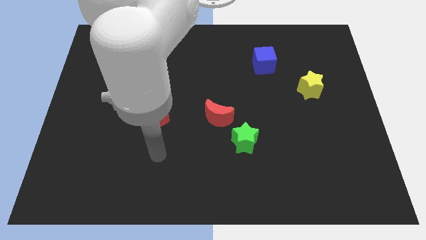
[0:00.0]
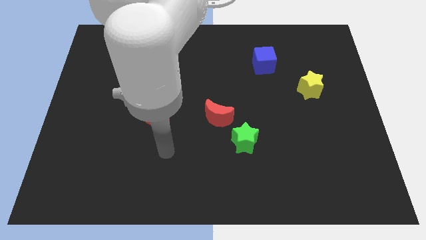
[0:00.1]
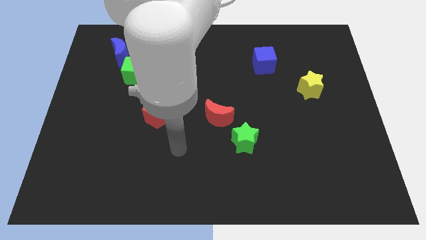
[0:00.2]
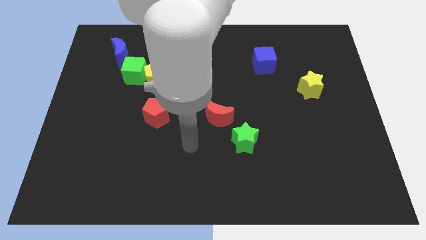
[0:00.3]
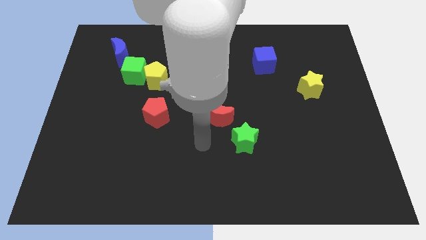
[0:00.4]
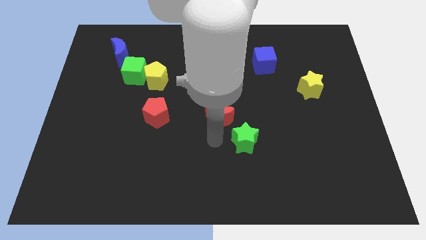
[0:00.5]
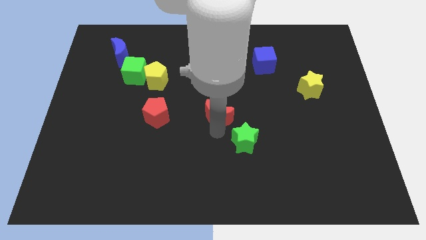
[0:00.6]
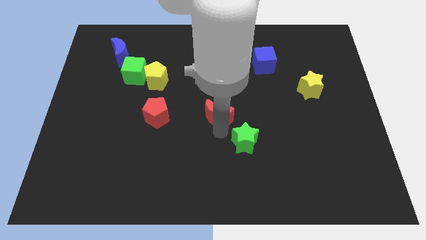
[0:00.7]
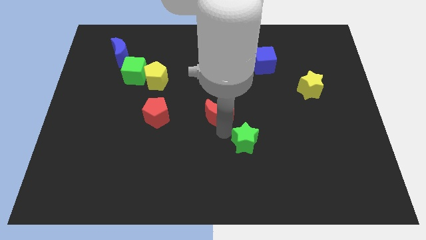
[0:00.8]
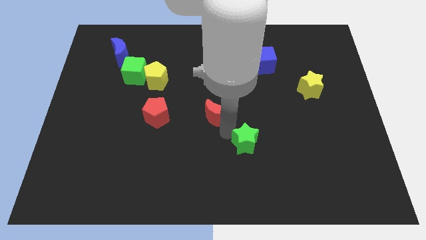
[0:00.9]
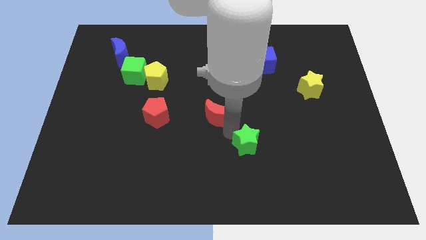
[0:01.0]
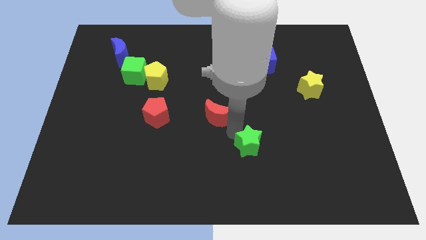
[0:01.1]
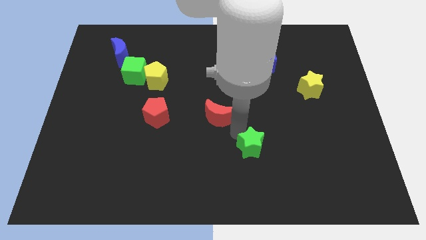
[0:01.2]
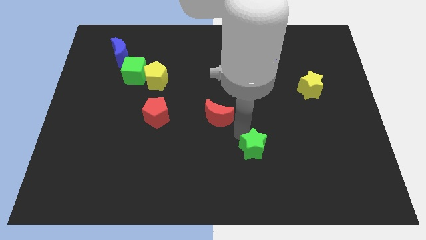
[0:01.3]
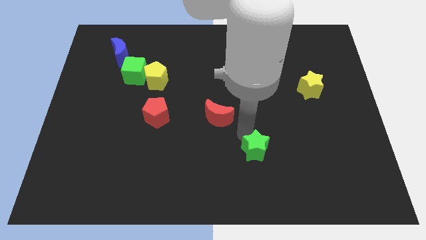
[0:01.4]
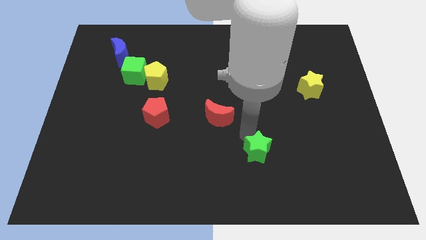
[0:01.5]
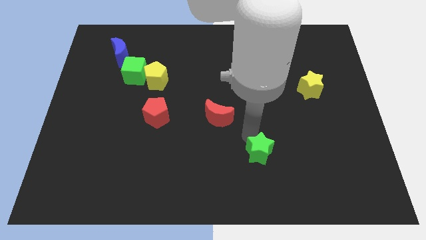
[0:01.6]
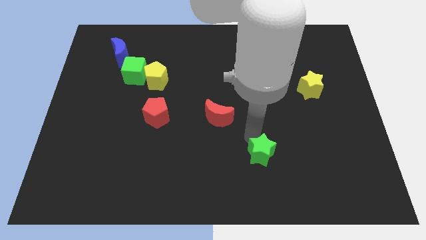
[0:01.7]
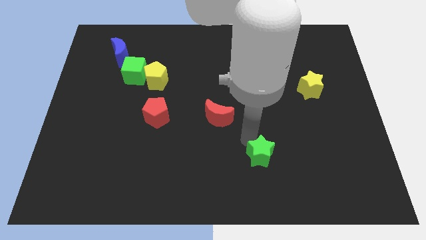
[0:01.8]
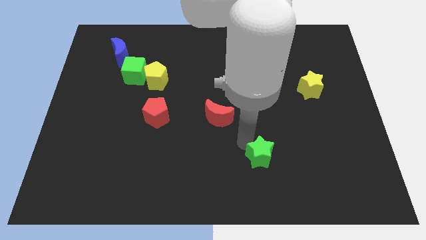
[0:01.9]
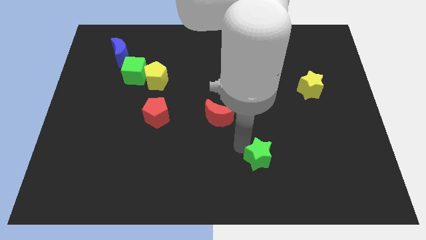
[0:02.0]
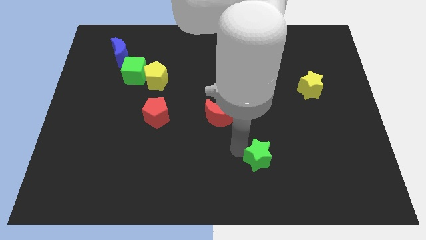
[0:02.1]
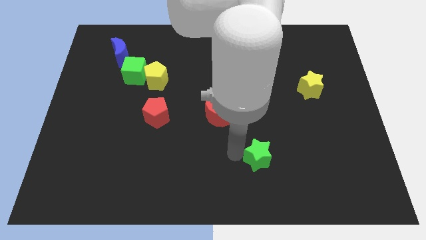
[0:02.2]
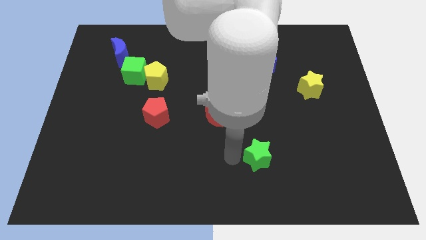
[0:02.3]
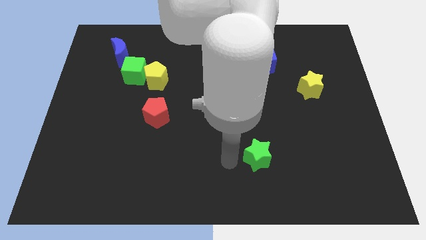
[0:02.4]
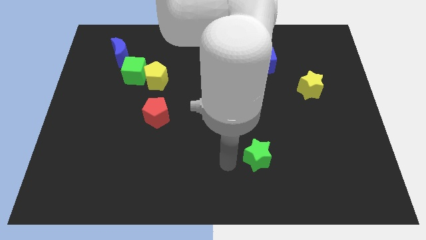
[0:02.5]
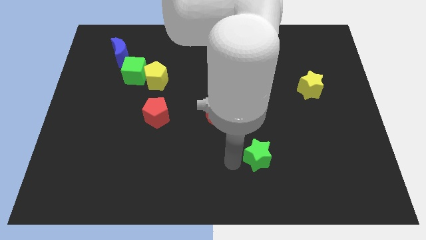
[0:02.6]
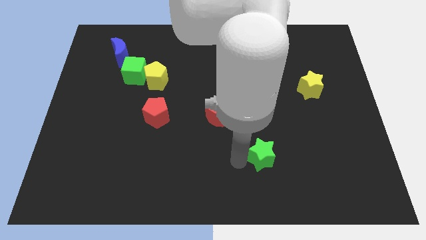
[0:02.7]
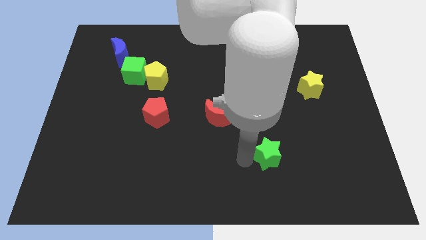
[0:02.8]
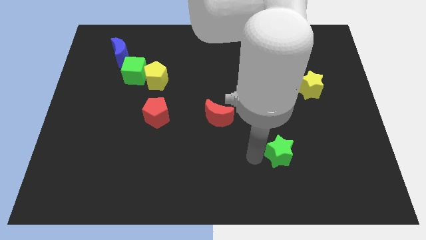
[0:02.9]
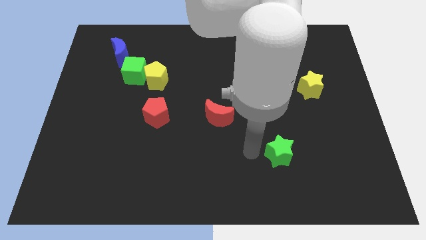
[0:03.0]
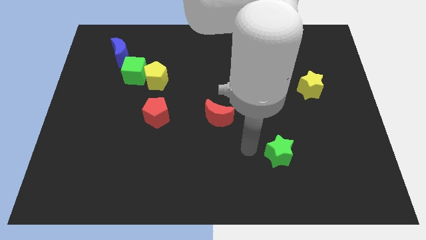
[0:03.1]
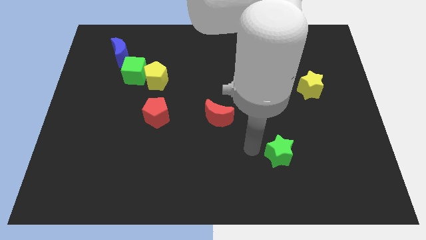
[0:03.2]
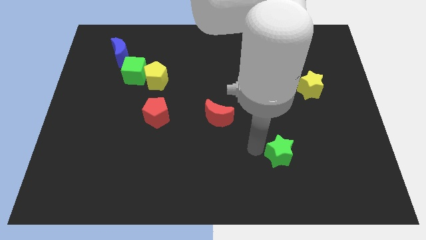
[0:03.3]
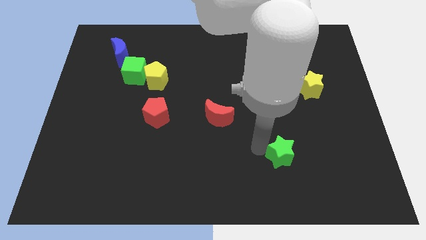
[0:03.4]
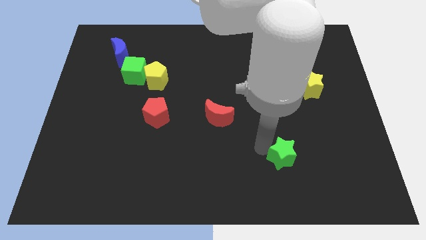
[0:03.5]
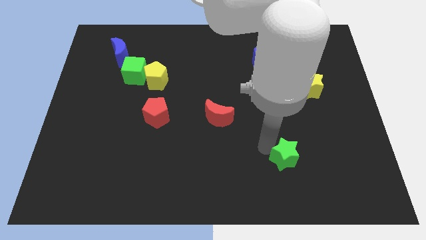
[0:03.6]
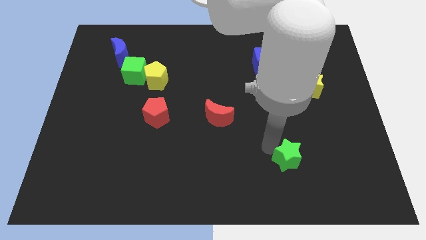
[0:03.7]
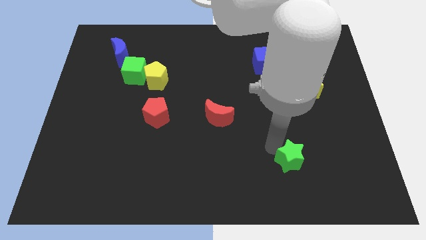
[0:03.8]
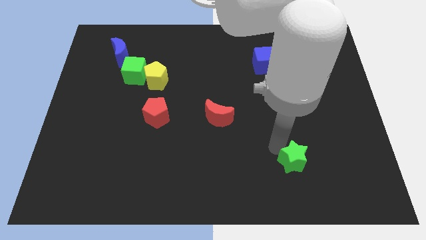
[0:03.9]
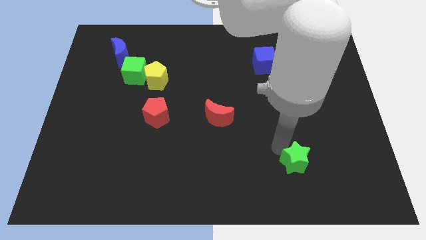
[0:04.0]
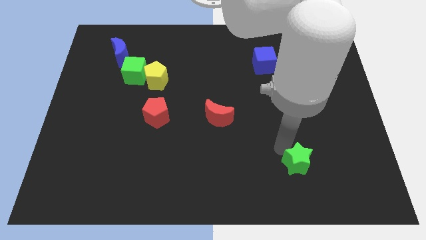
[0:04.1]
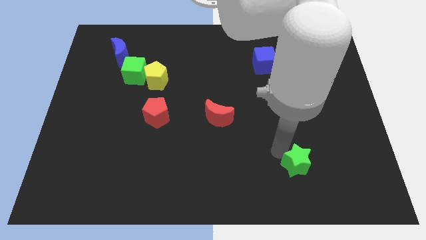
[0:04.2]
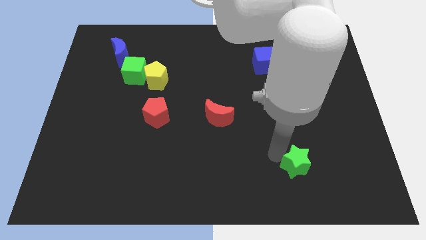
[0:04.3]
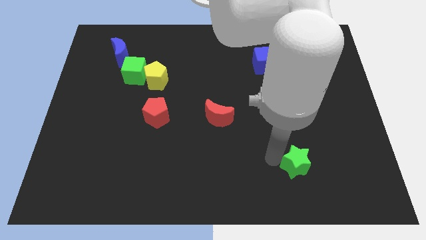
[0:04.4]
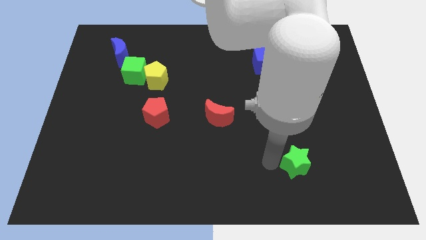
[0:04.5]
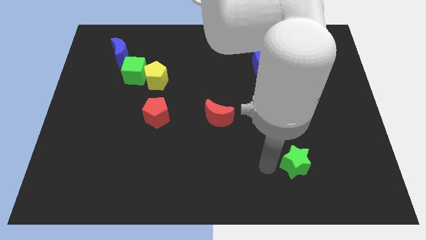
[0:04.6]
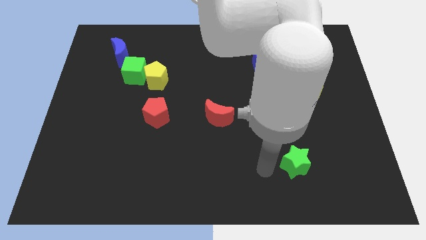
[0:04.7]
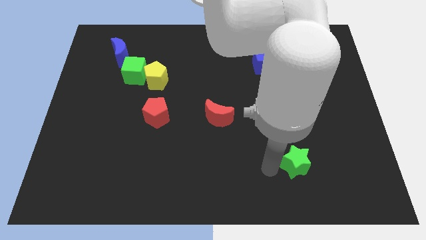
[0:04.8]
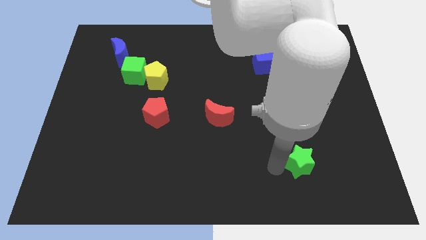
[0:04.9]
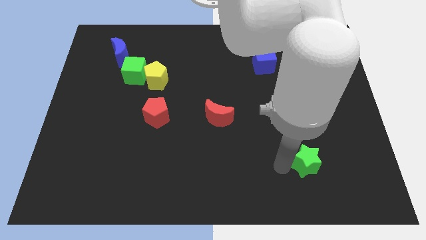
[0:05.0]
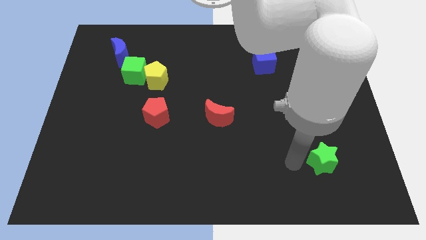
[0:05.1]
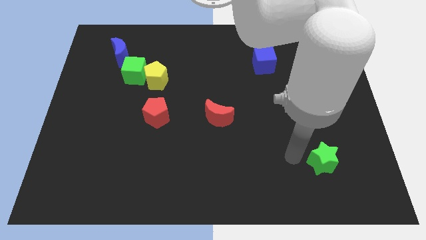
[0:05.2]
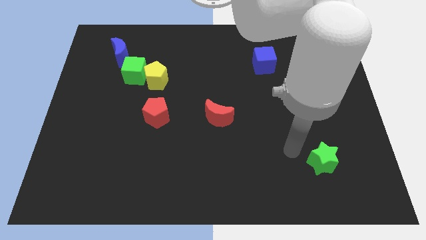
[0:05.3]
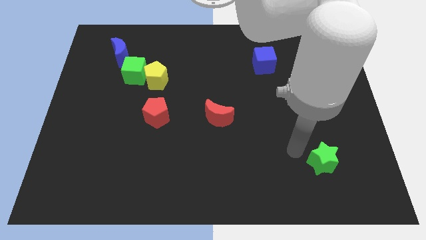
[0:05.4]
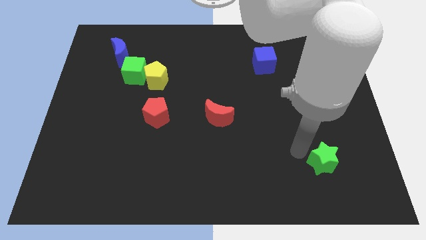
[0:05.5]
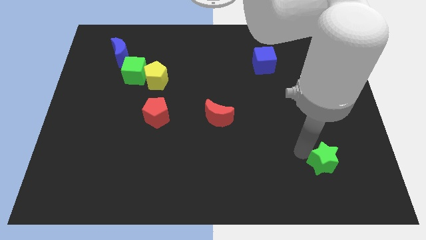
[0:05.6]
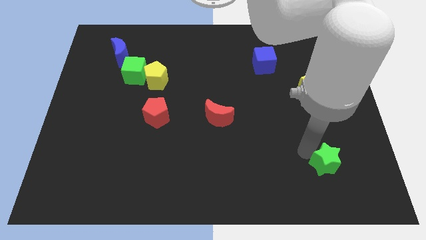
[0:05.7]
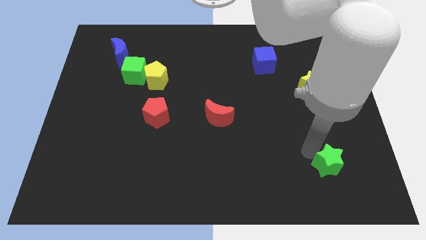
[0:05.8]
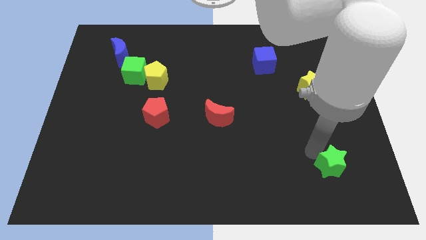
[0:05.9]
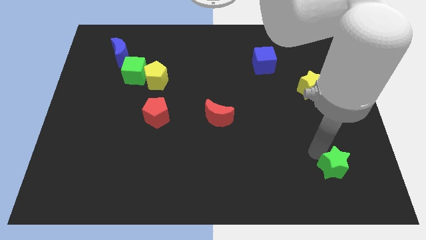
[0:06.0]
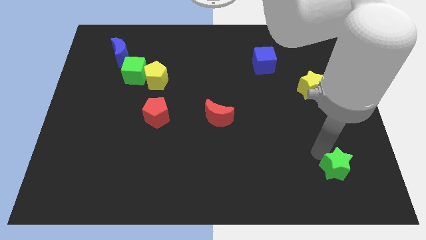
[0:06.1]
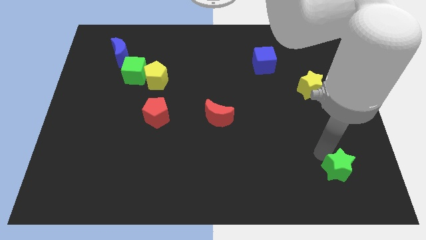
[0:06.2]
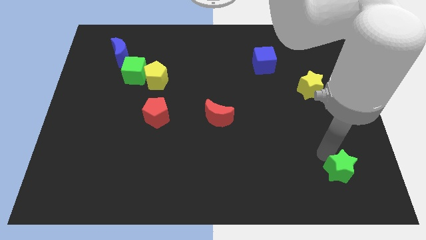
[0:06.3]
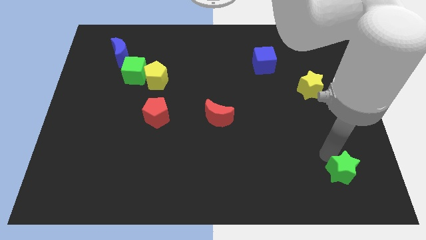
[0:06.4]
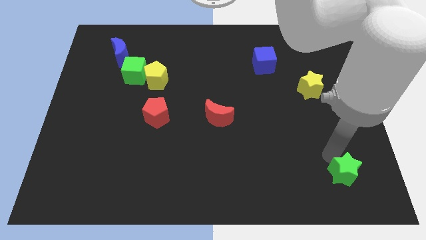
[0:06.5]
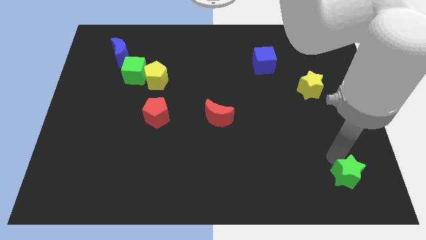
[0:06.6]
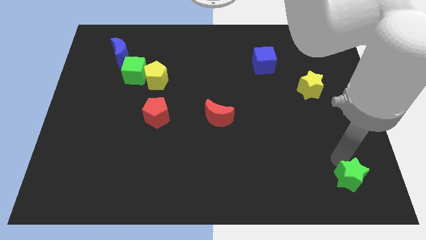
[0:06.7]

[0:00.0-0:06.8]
slide the green star to the bottom right corner
